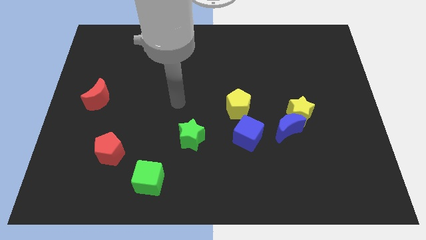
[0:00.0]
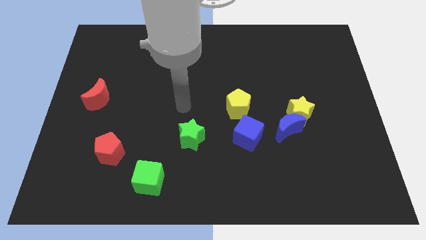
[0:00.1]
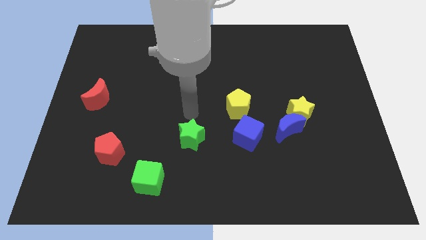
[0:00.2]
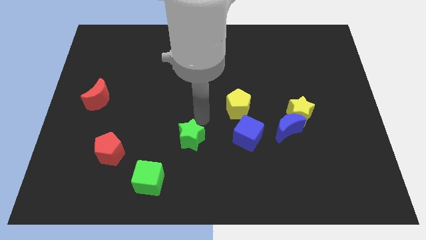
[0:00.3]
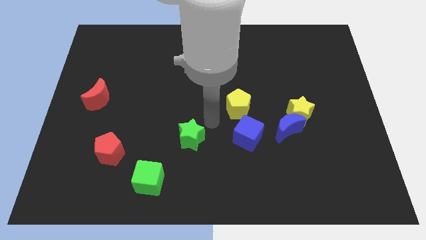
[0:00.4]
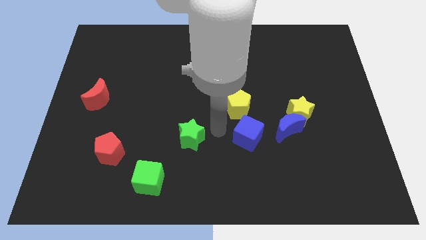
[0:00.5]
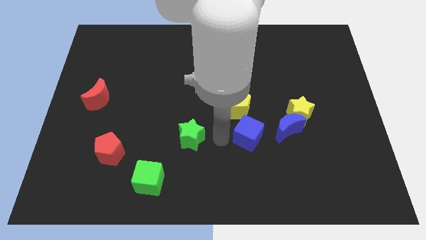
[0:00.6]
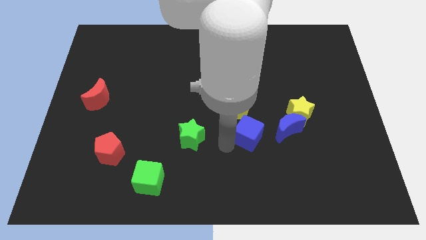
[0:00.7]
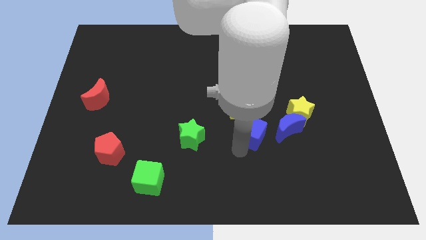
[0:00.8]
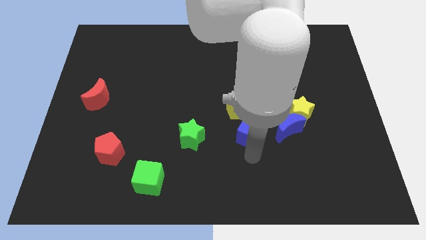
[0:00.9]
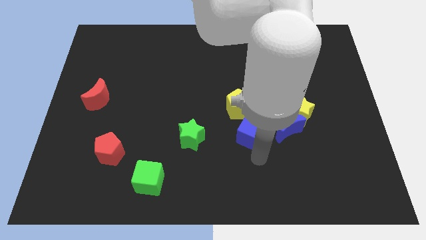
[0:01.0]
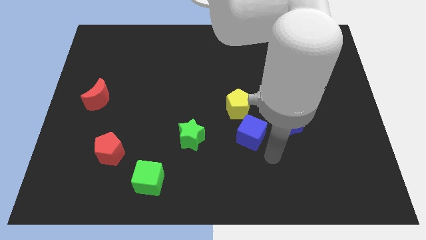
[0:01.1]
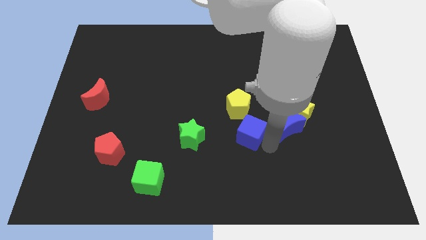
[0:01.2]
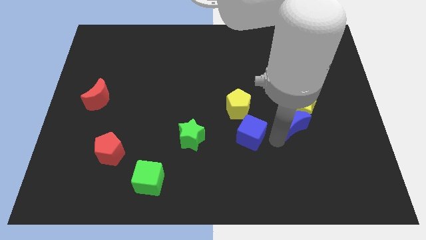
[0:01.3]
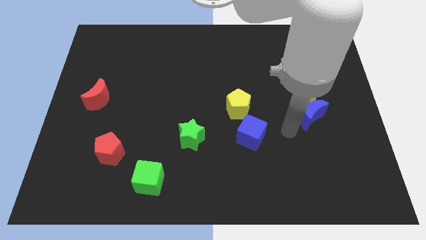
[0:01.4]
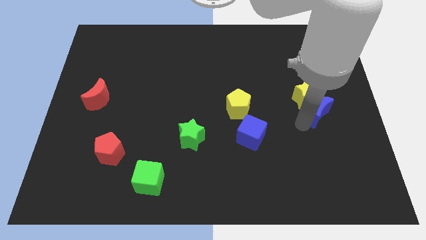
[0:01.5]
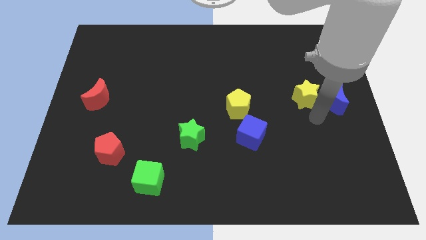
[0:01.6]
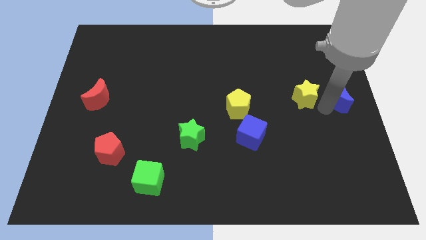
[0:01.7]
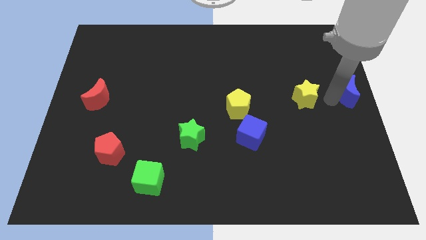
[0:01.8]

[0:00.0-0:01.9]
separate the yellow star from the blue moon

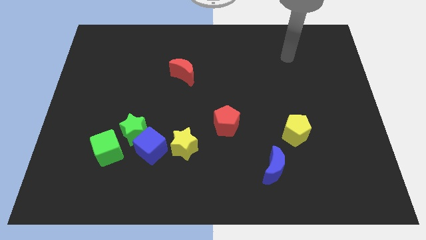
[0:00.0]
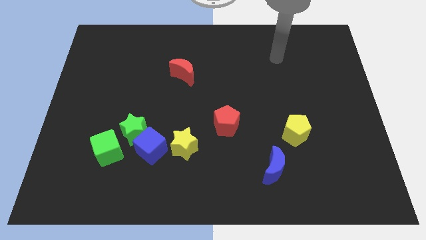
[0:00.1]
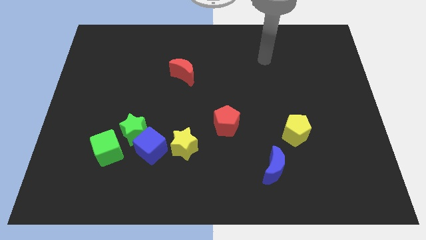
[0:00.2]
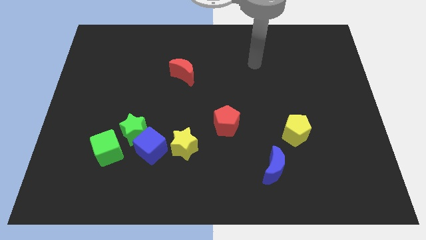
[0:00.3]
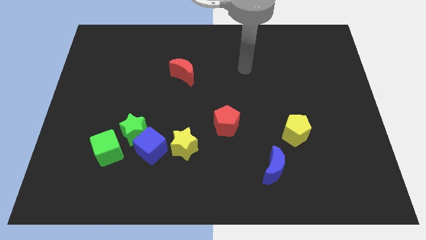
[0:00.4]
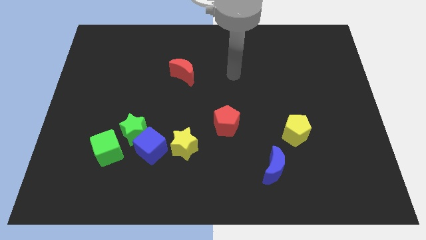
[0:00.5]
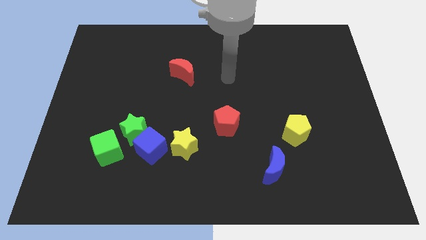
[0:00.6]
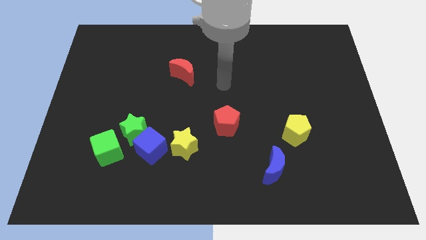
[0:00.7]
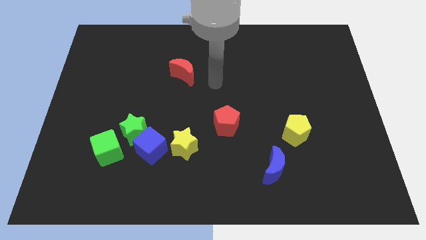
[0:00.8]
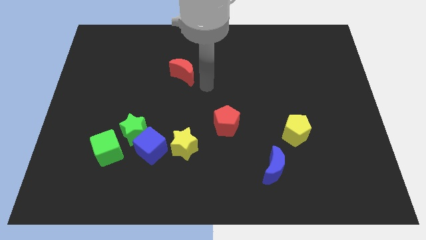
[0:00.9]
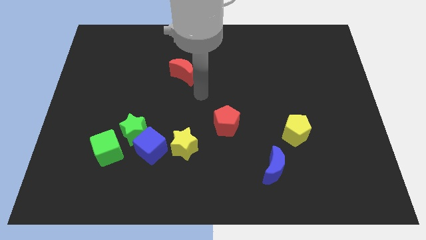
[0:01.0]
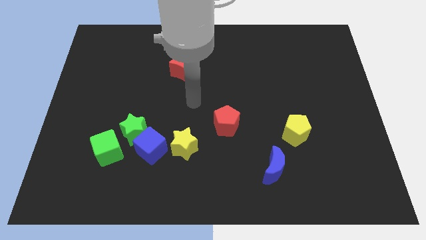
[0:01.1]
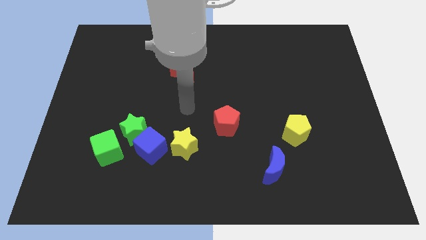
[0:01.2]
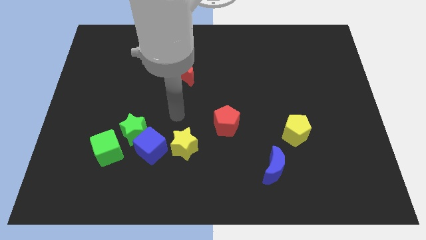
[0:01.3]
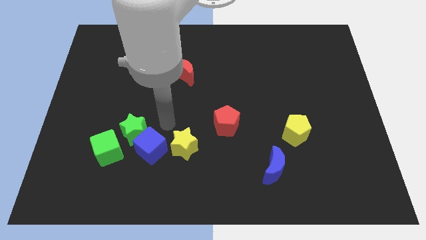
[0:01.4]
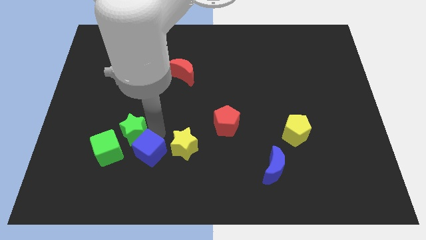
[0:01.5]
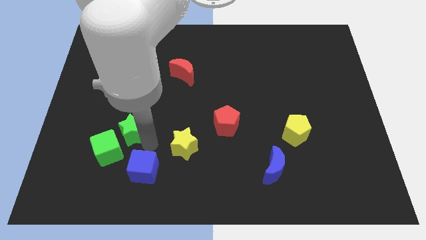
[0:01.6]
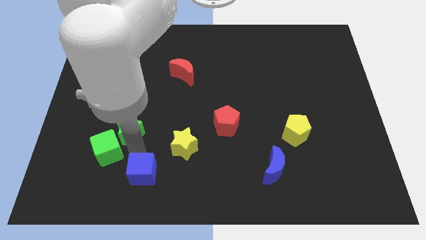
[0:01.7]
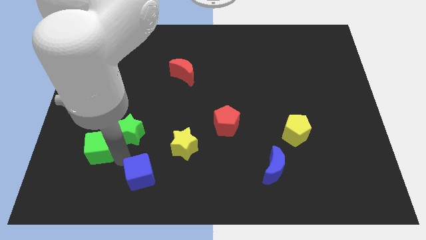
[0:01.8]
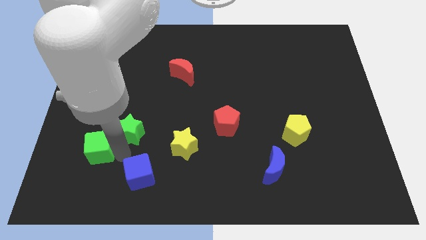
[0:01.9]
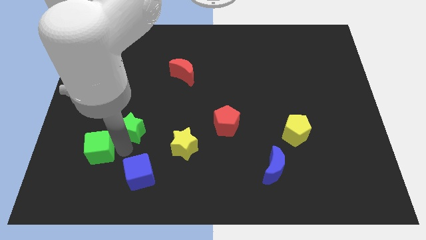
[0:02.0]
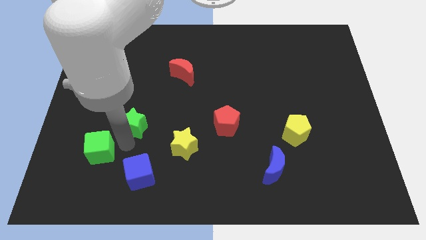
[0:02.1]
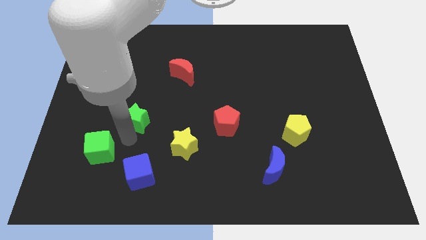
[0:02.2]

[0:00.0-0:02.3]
separate the green star from the blue cube and green cube

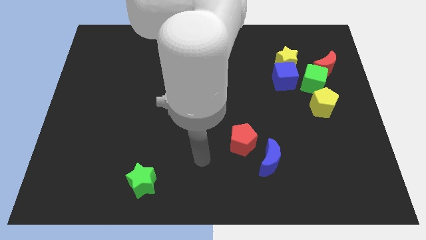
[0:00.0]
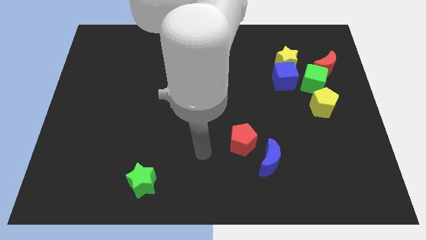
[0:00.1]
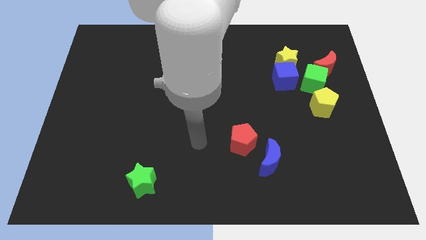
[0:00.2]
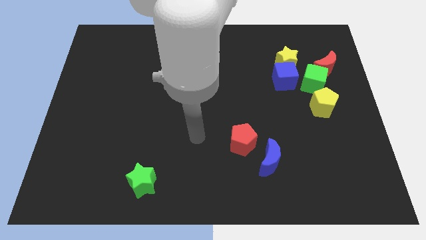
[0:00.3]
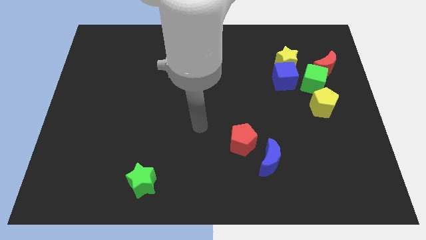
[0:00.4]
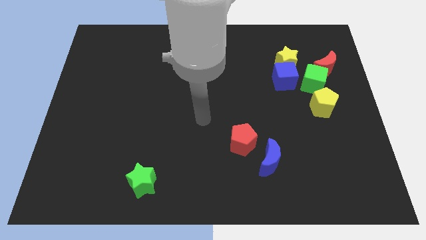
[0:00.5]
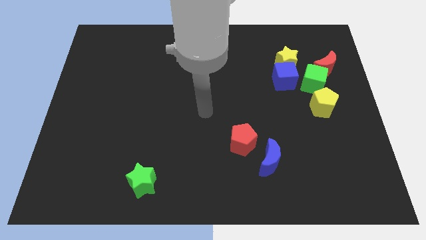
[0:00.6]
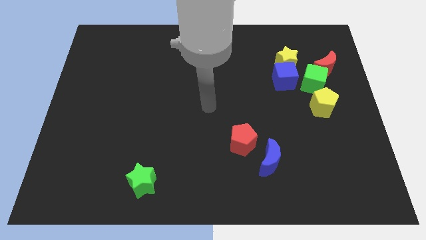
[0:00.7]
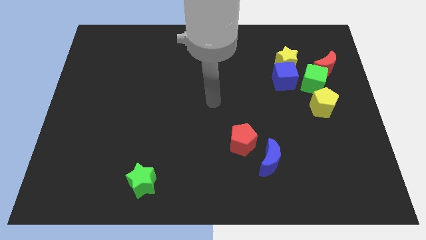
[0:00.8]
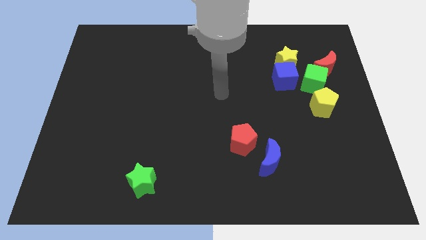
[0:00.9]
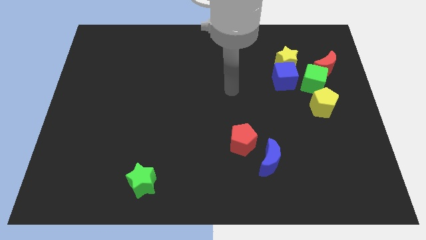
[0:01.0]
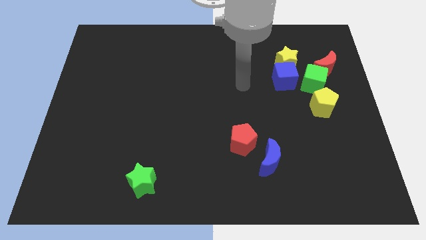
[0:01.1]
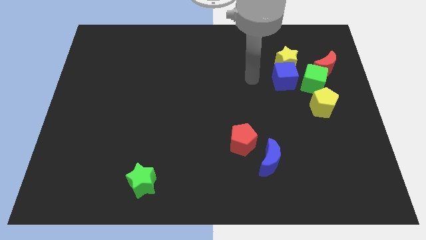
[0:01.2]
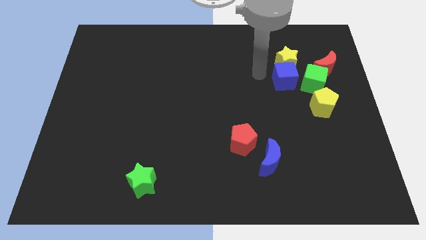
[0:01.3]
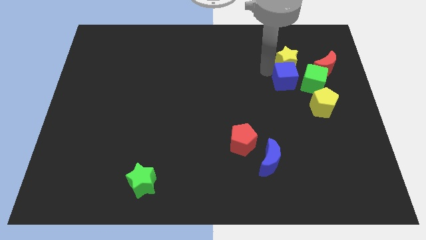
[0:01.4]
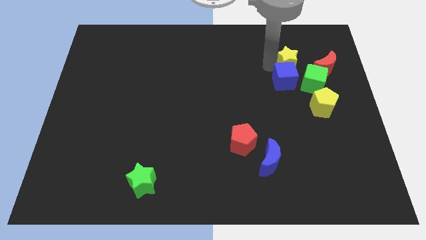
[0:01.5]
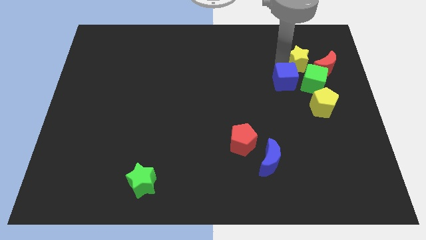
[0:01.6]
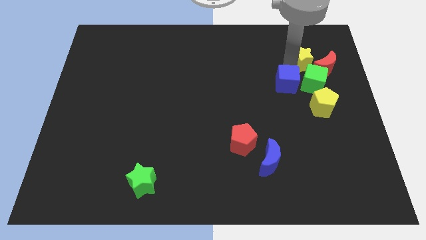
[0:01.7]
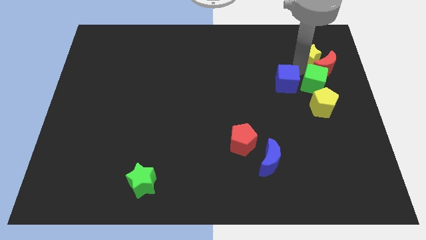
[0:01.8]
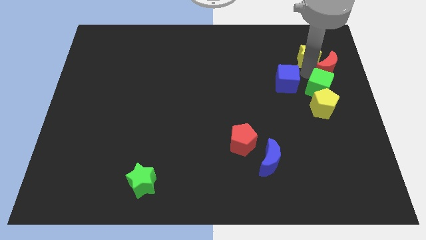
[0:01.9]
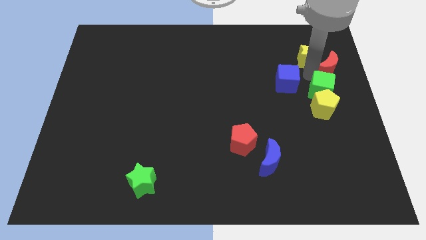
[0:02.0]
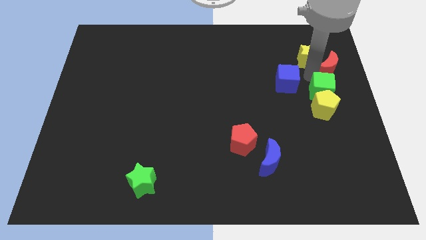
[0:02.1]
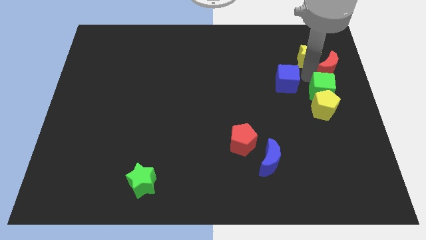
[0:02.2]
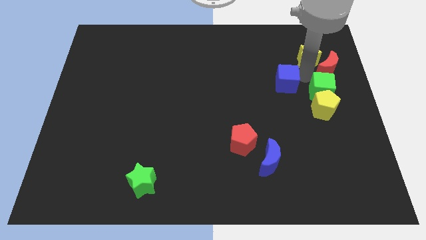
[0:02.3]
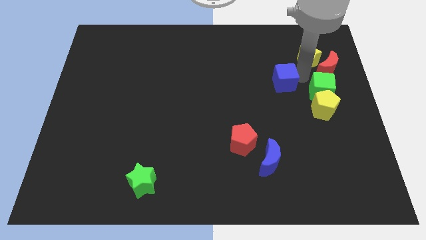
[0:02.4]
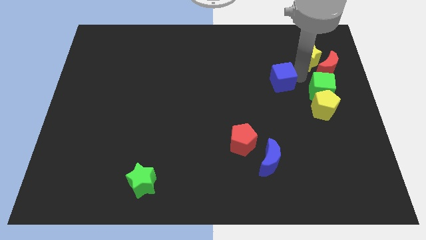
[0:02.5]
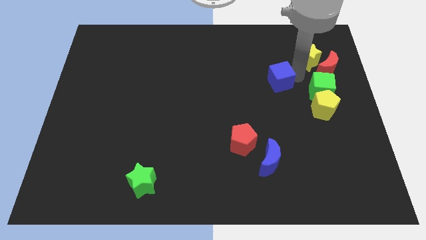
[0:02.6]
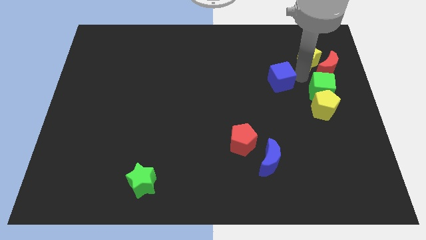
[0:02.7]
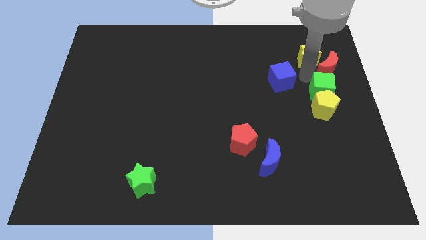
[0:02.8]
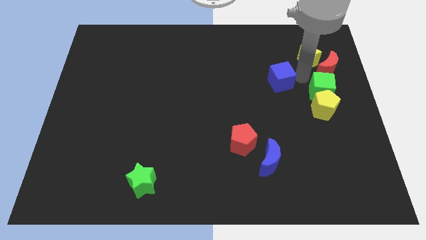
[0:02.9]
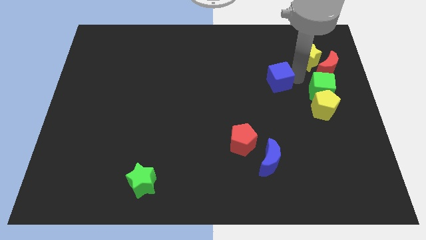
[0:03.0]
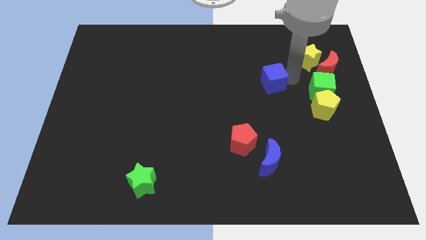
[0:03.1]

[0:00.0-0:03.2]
move the blue cube away from the yellow star and green cube

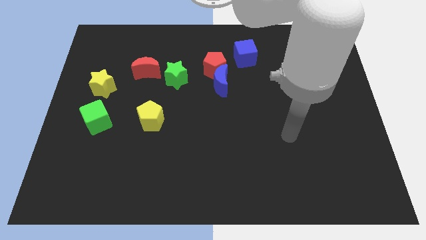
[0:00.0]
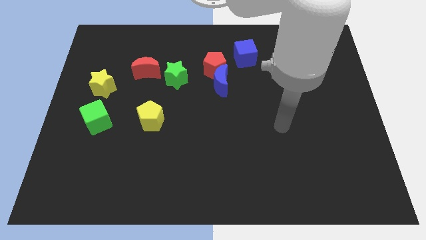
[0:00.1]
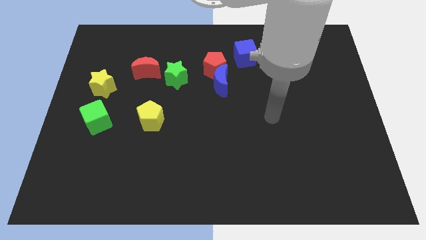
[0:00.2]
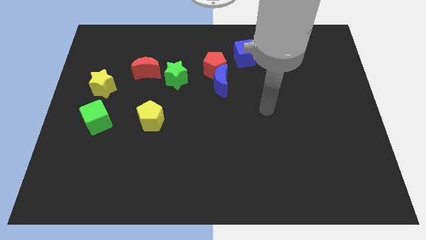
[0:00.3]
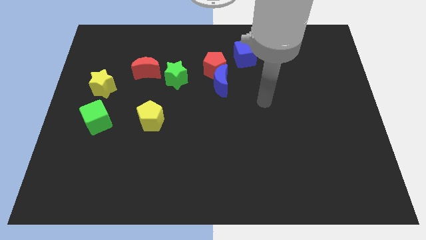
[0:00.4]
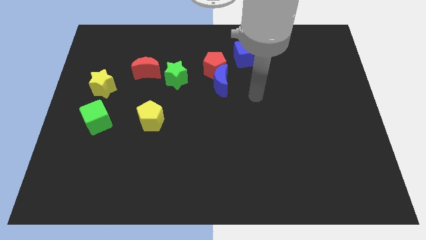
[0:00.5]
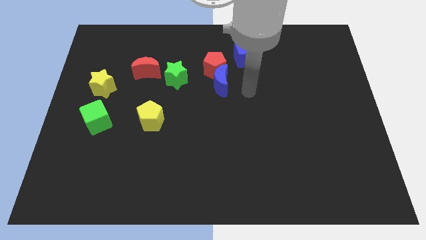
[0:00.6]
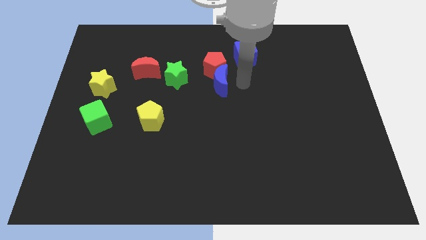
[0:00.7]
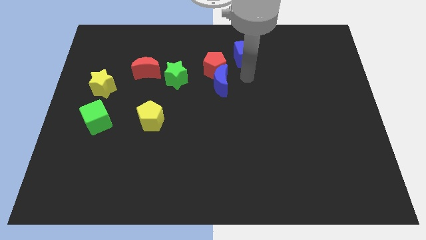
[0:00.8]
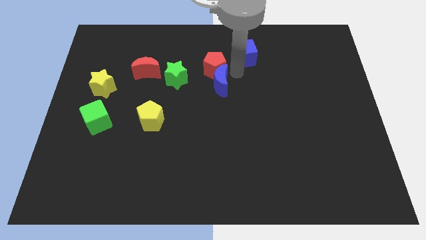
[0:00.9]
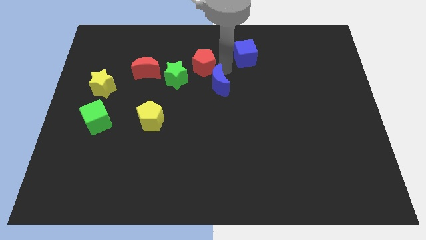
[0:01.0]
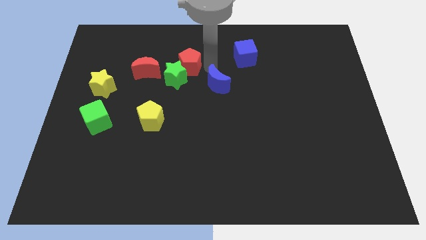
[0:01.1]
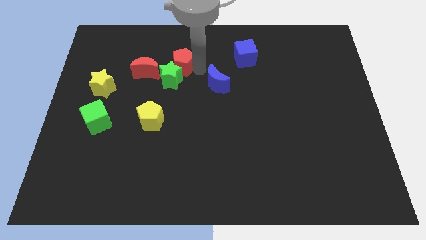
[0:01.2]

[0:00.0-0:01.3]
separate the blue moon from the red pentagon

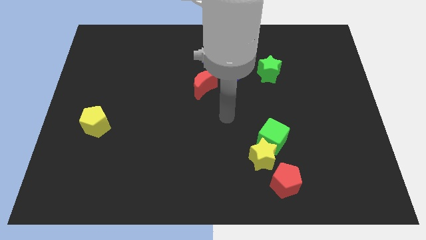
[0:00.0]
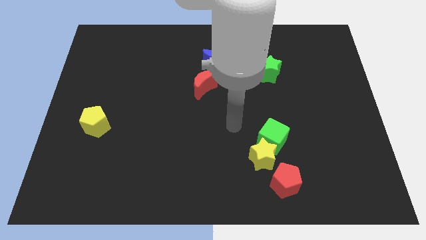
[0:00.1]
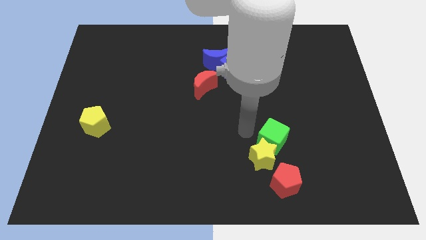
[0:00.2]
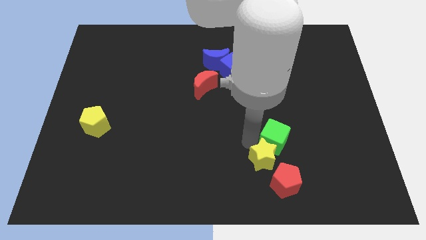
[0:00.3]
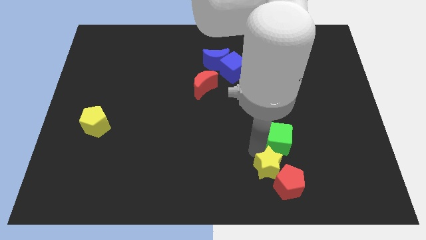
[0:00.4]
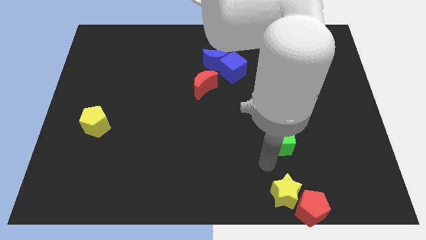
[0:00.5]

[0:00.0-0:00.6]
move the green cube away from the yellow star

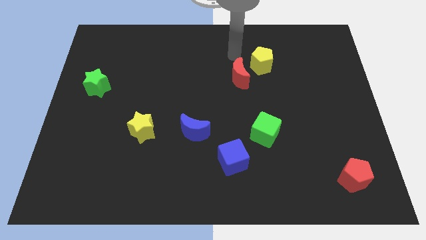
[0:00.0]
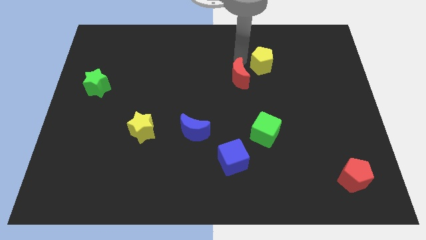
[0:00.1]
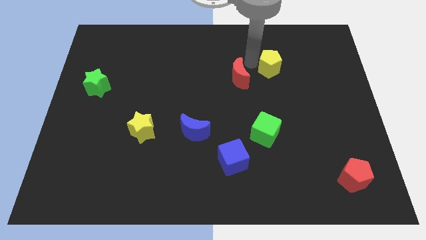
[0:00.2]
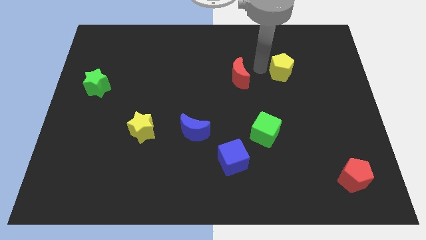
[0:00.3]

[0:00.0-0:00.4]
move the red moon away from the yellow pentagon
